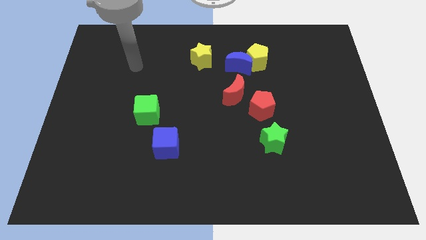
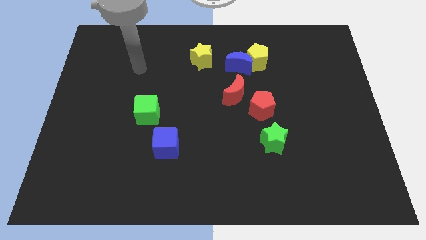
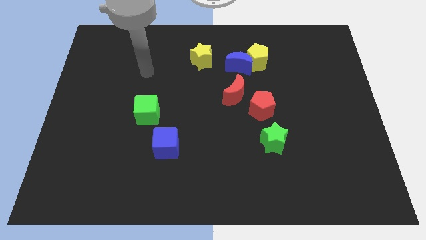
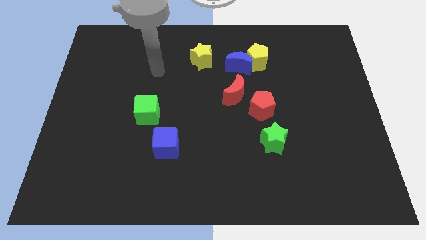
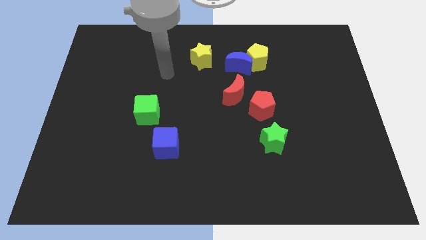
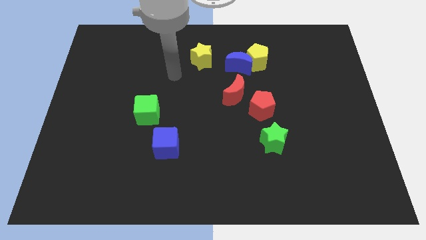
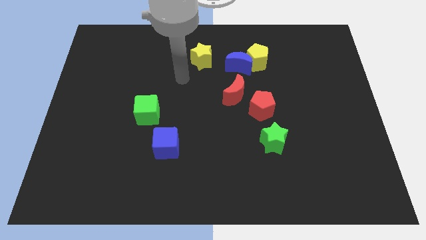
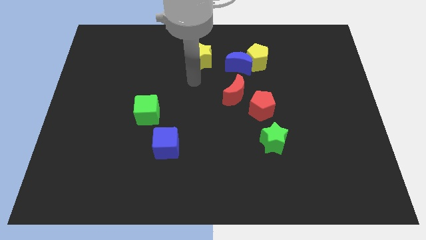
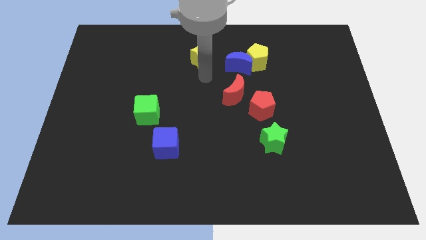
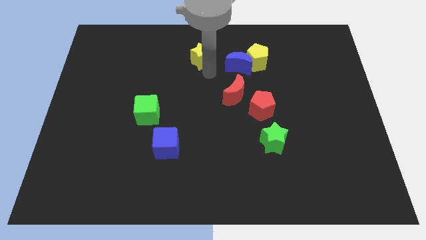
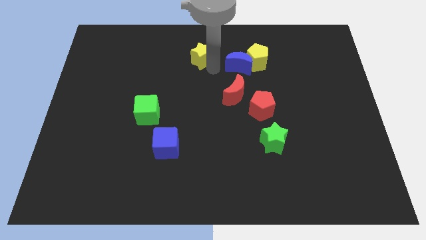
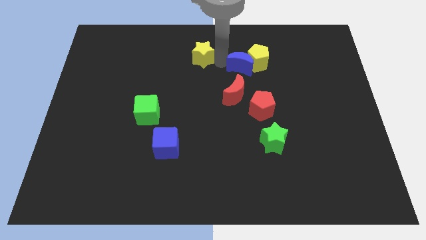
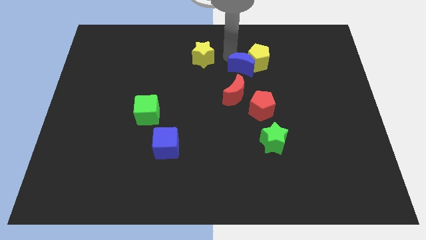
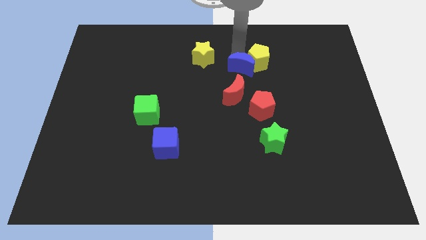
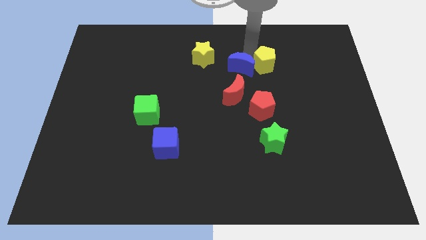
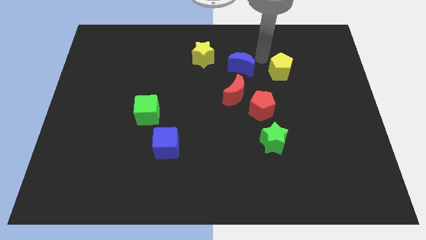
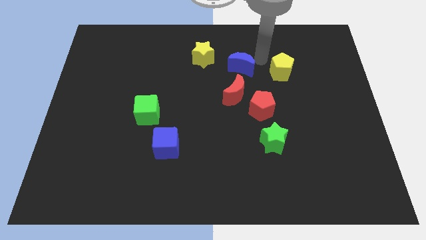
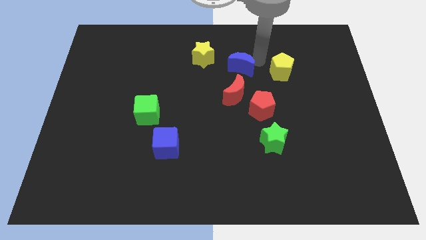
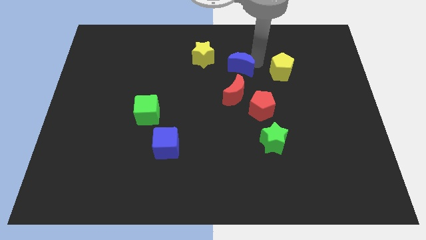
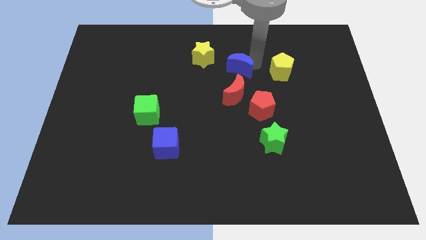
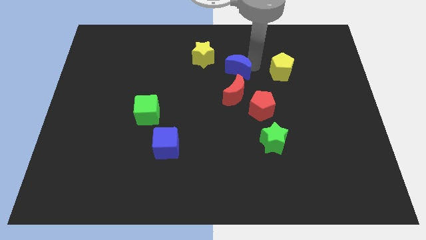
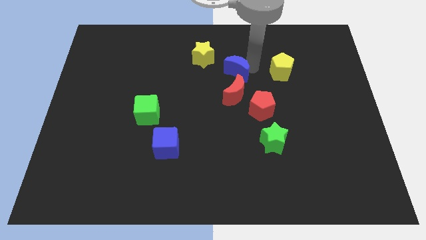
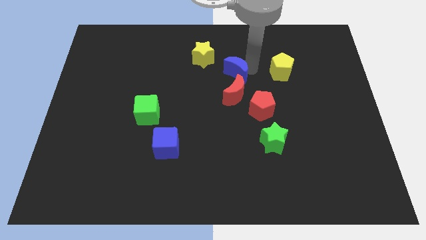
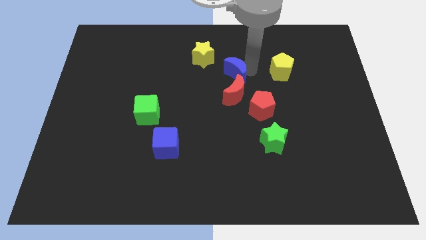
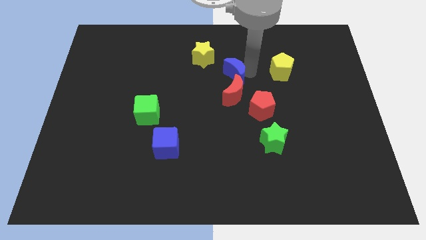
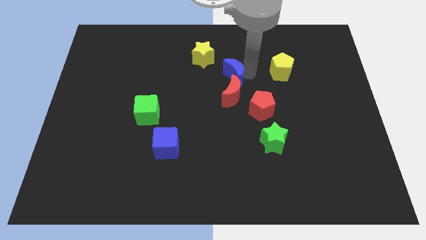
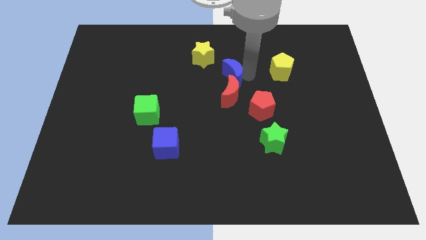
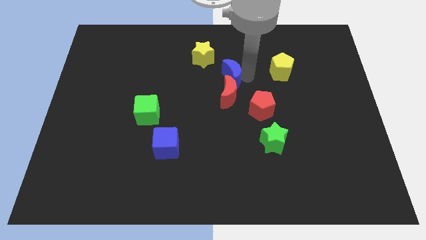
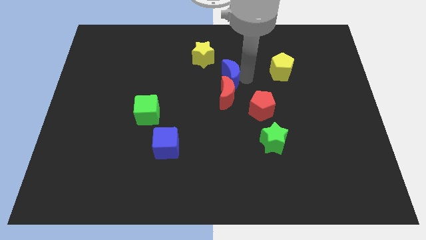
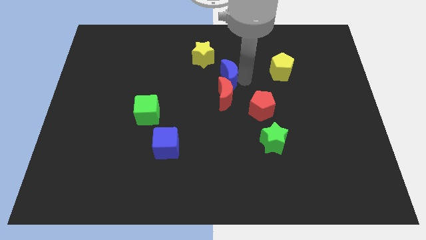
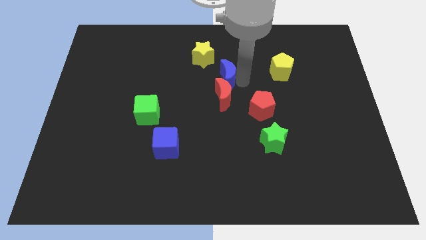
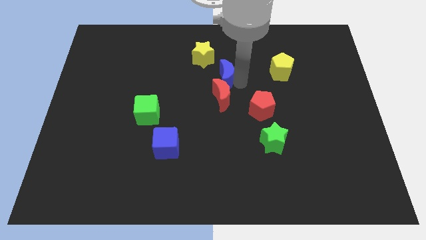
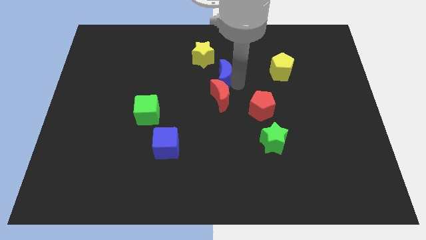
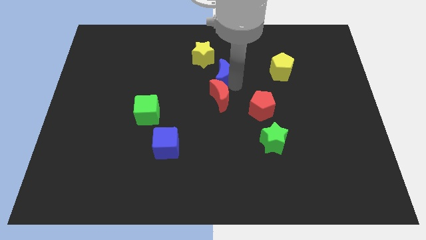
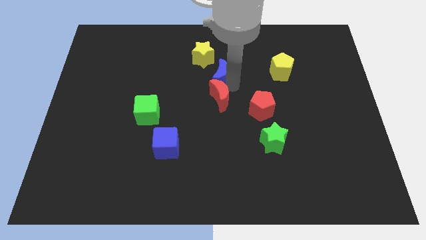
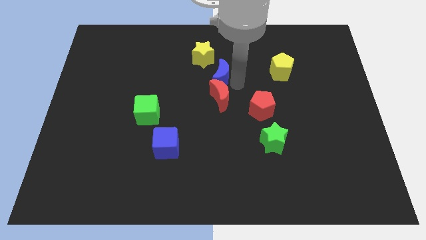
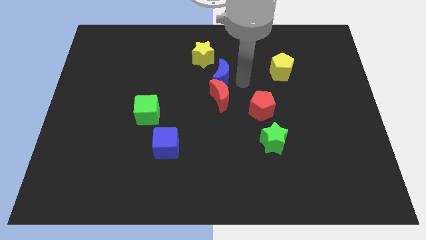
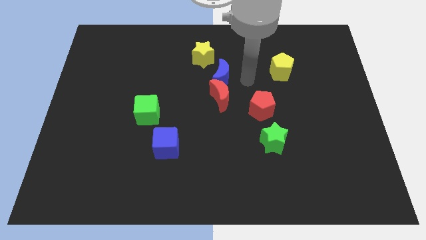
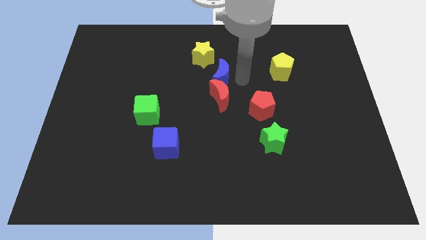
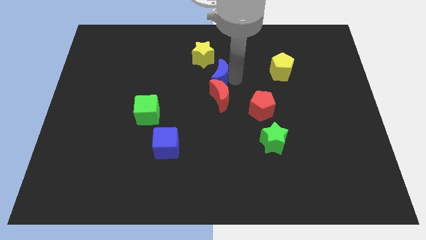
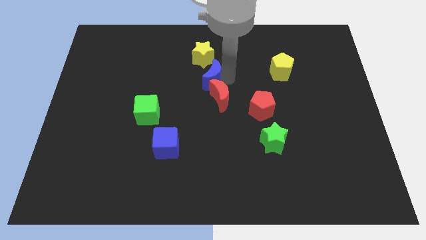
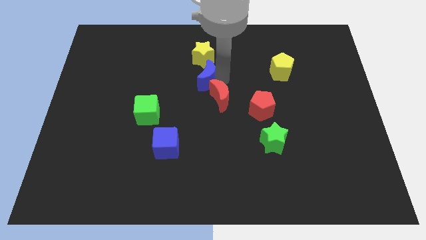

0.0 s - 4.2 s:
move the blue moon left a little bit

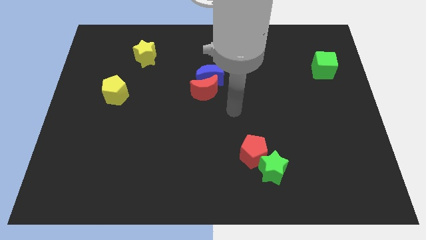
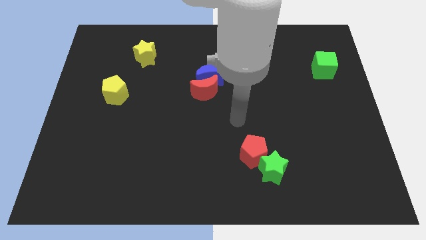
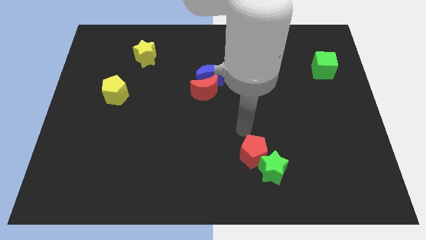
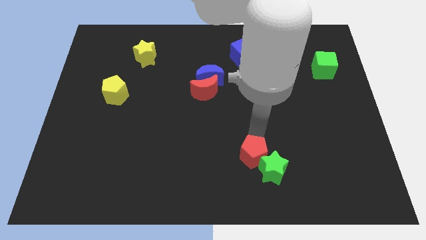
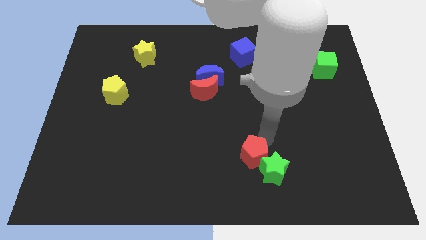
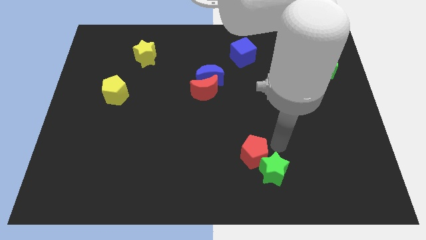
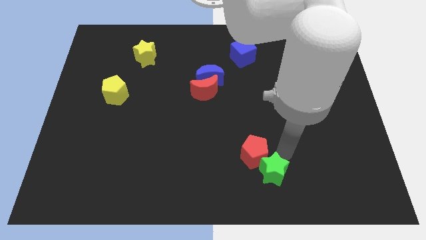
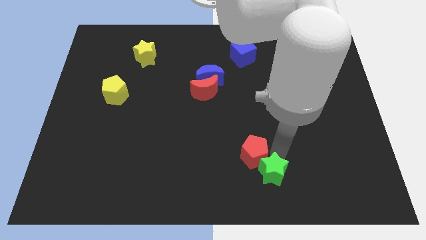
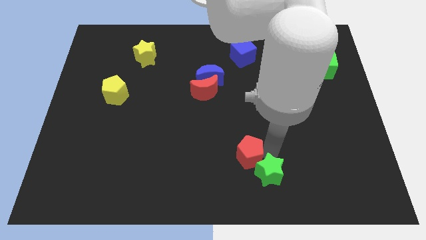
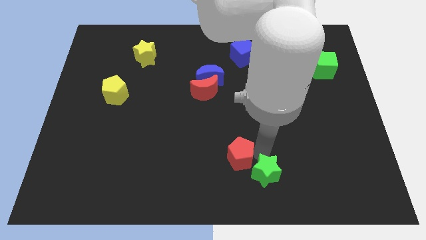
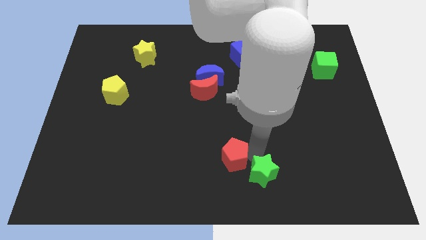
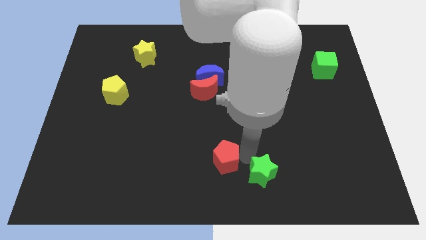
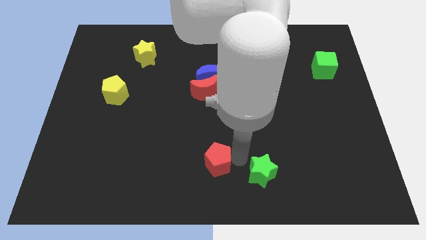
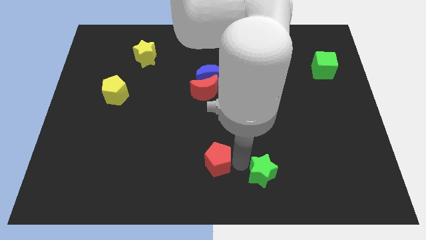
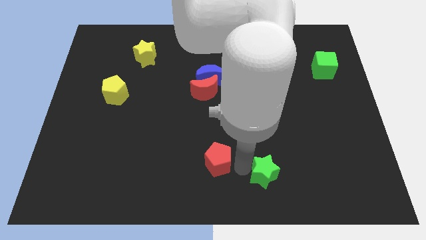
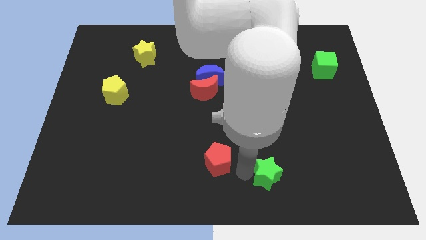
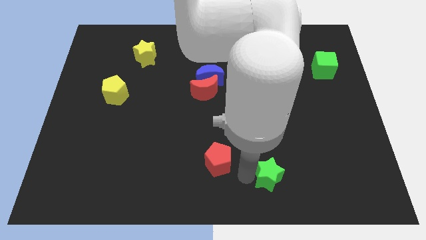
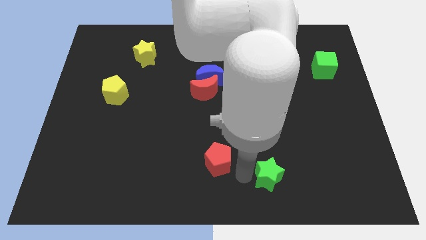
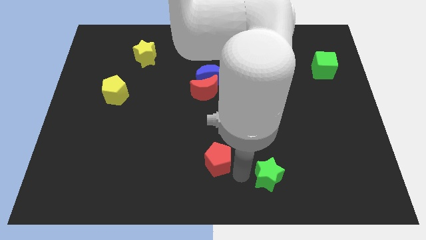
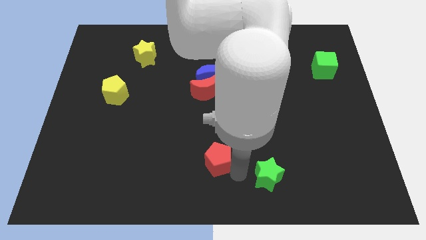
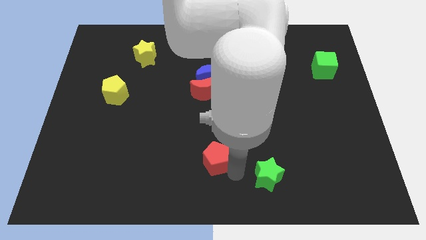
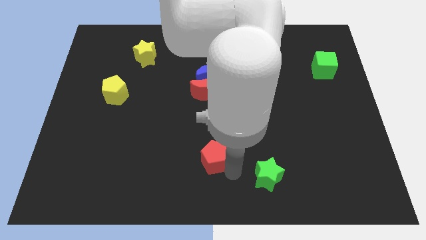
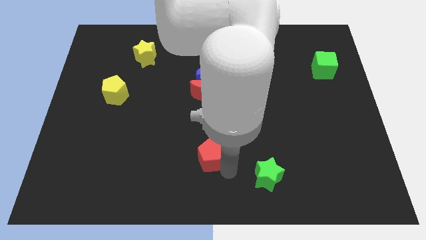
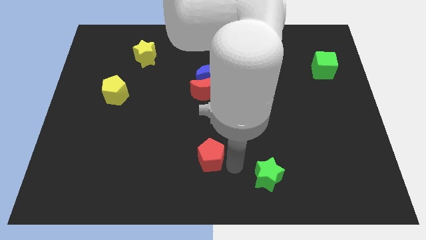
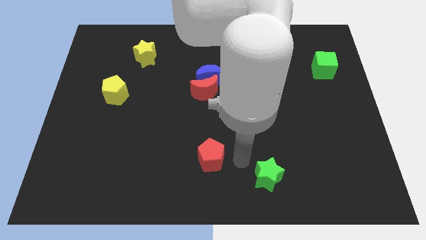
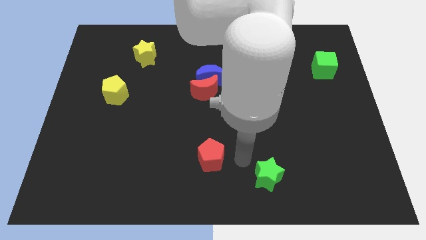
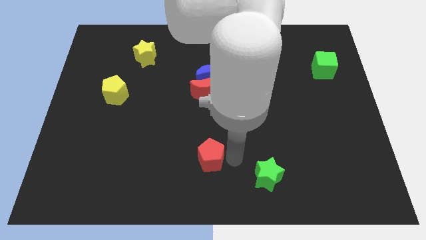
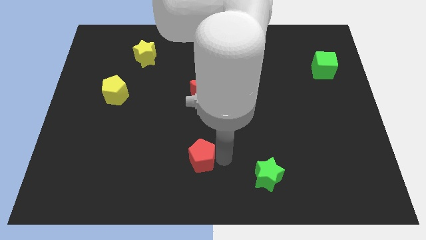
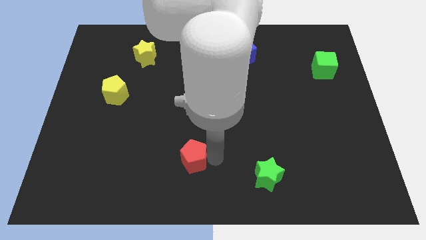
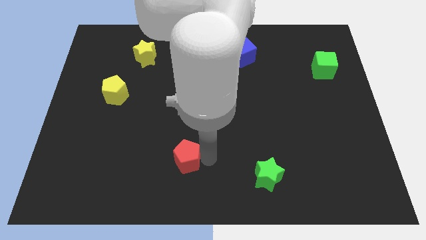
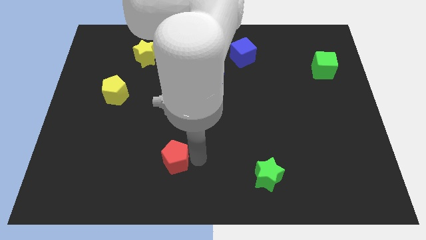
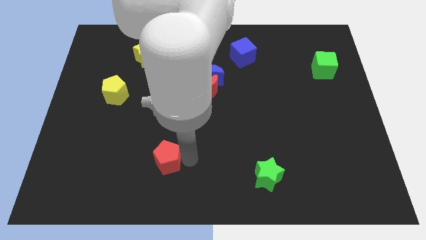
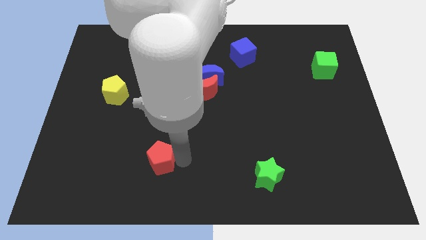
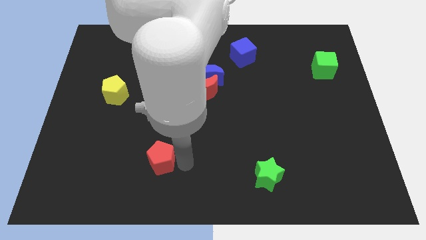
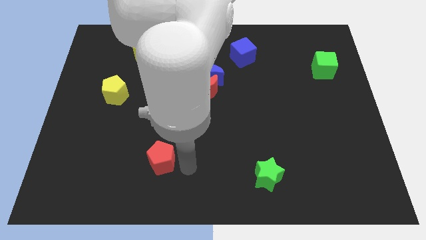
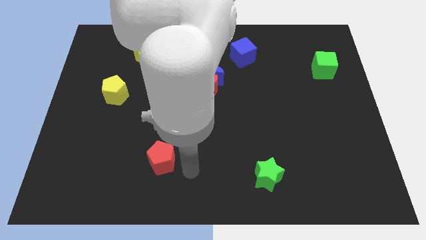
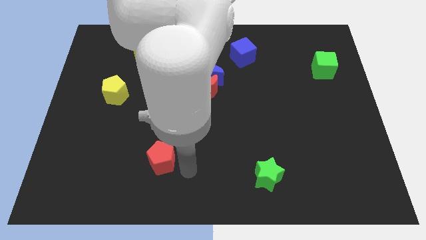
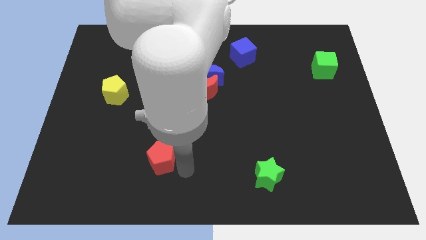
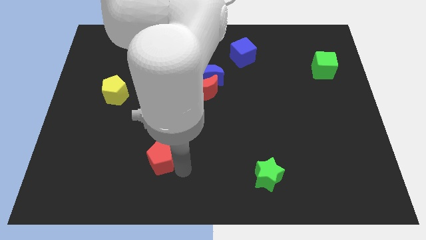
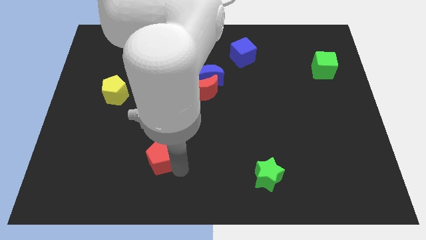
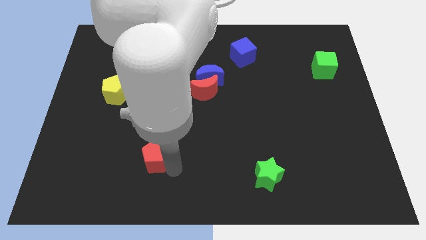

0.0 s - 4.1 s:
slide the red pentagon to the left
